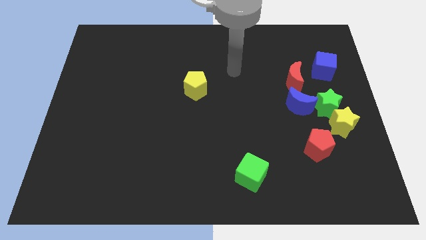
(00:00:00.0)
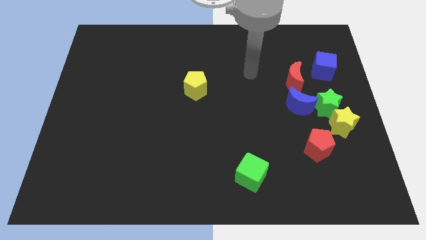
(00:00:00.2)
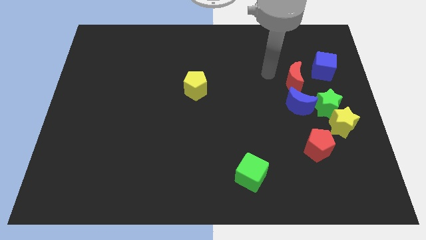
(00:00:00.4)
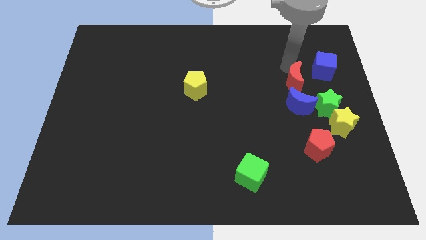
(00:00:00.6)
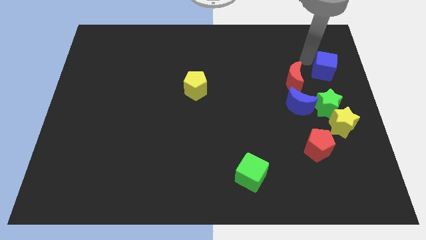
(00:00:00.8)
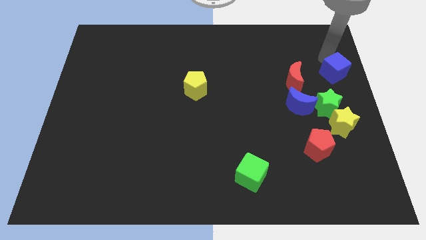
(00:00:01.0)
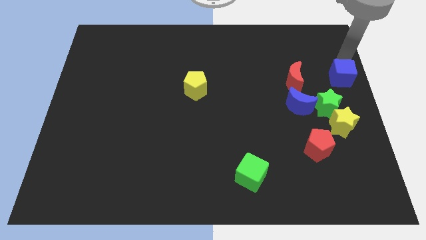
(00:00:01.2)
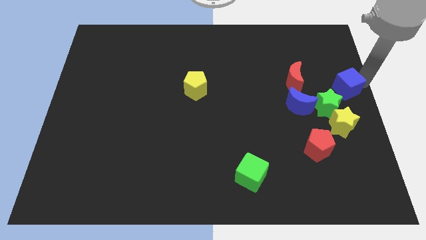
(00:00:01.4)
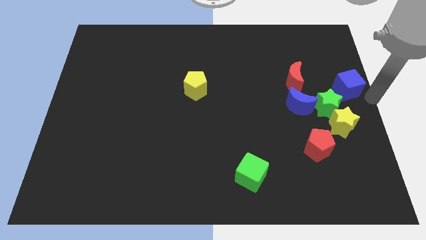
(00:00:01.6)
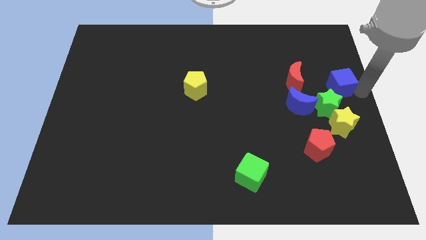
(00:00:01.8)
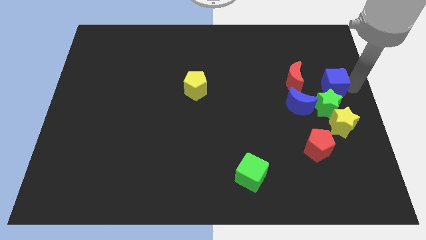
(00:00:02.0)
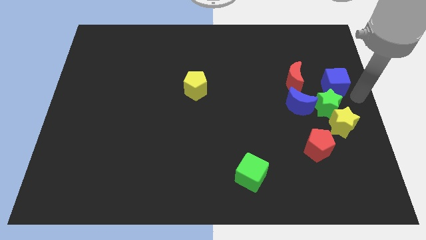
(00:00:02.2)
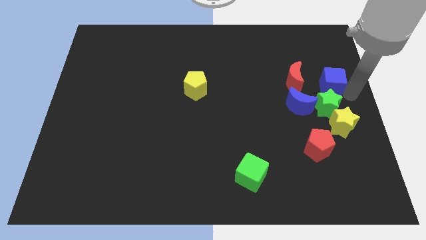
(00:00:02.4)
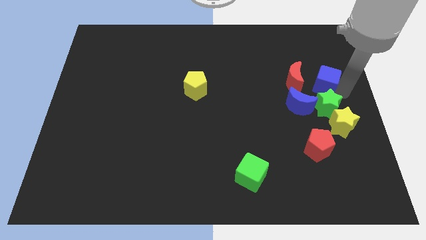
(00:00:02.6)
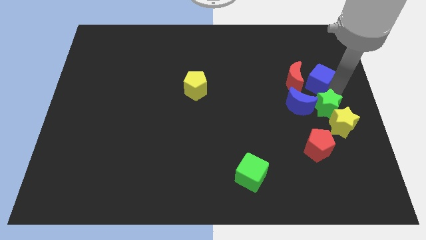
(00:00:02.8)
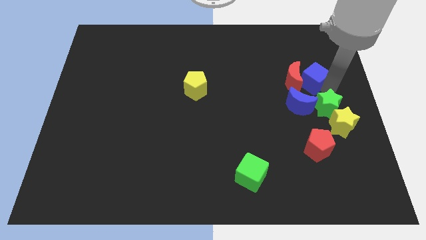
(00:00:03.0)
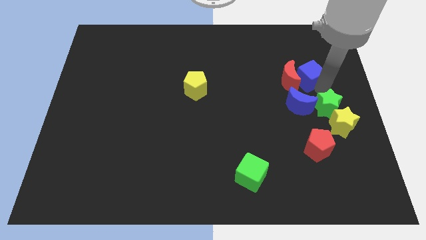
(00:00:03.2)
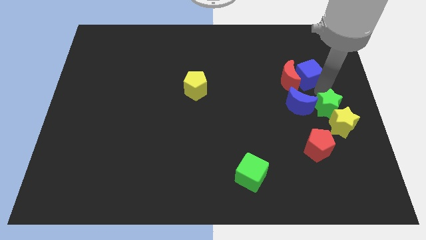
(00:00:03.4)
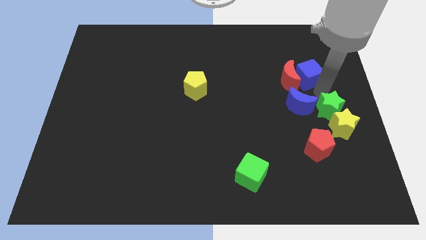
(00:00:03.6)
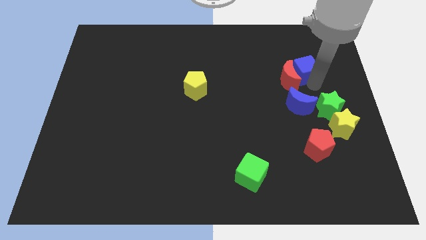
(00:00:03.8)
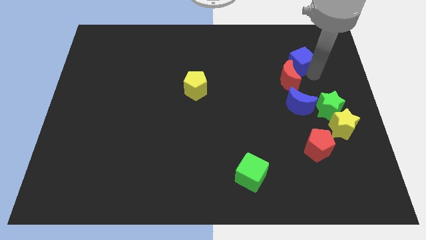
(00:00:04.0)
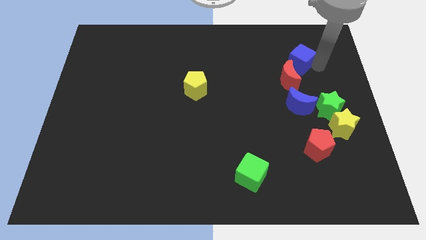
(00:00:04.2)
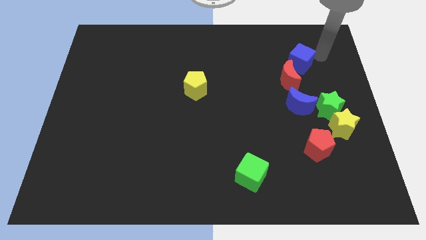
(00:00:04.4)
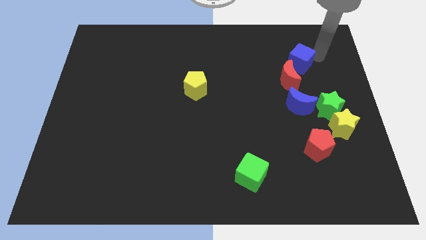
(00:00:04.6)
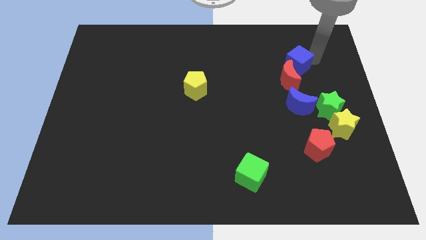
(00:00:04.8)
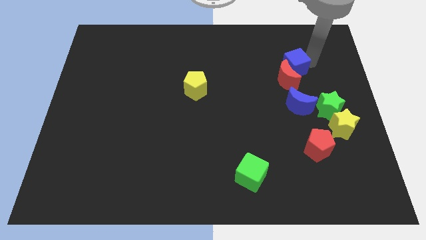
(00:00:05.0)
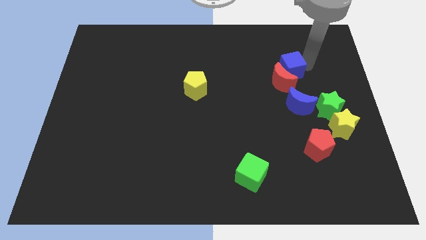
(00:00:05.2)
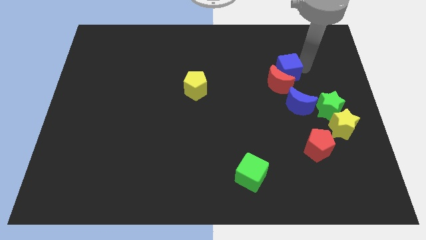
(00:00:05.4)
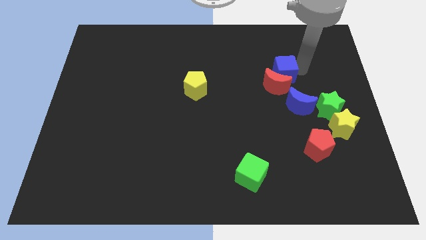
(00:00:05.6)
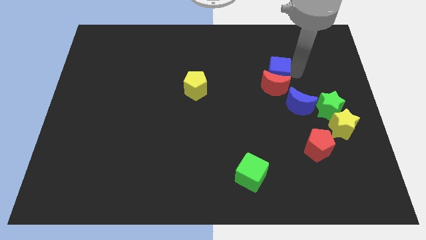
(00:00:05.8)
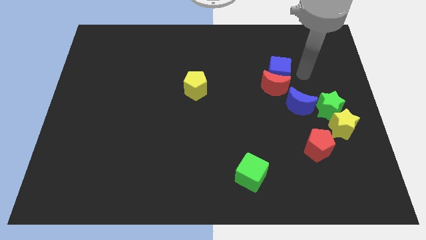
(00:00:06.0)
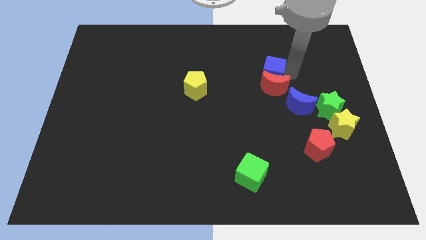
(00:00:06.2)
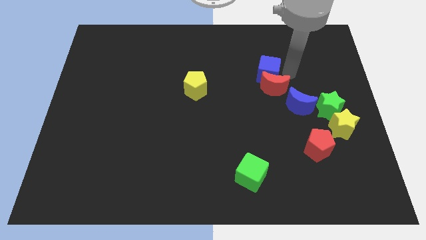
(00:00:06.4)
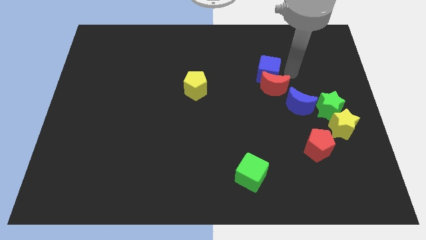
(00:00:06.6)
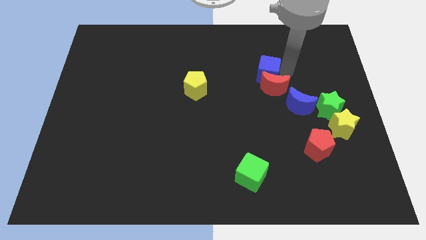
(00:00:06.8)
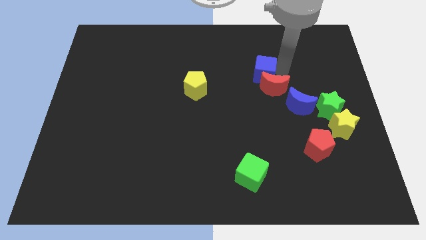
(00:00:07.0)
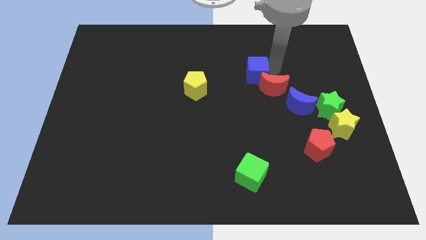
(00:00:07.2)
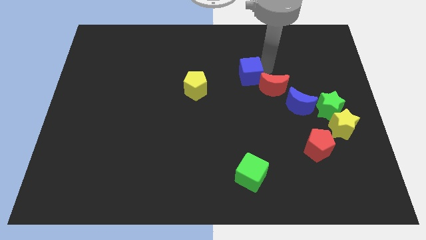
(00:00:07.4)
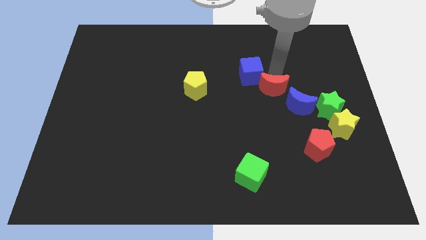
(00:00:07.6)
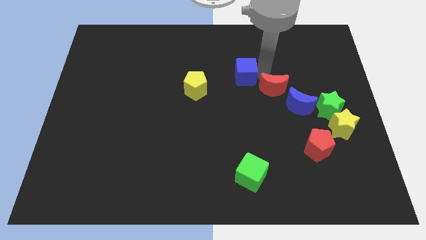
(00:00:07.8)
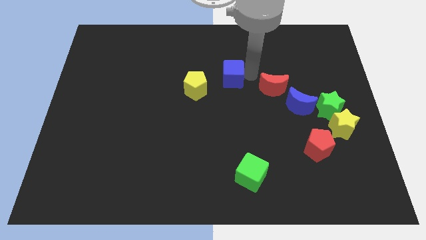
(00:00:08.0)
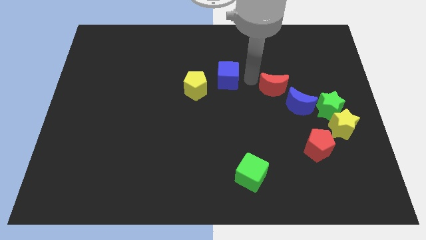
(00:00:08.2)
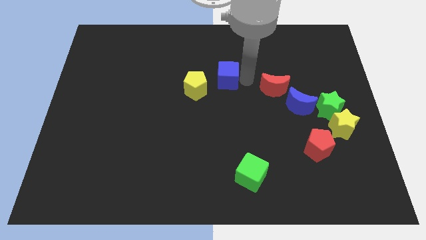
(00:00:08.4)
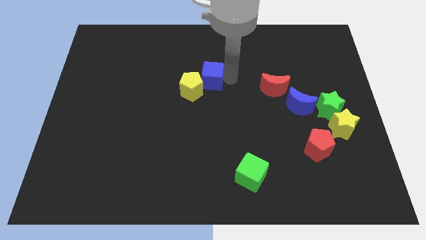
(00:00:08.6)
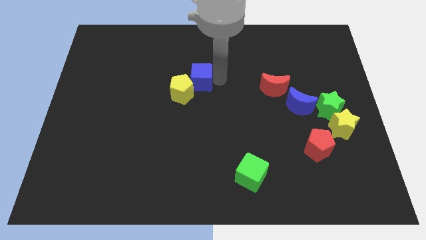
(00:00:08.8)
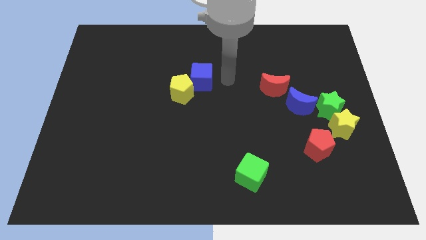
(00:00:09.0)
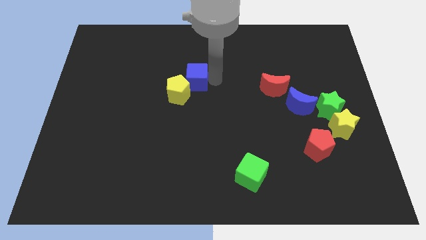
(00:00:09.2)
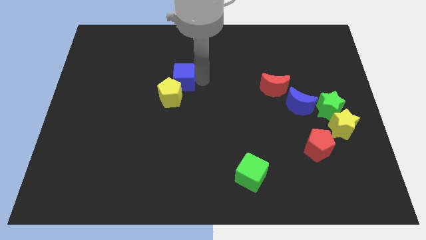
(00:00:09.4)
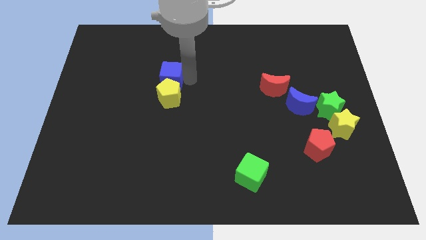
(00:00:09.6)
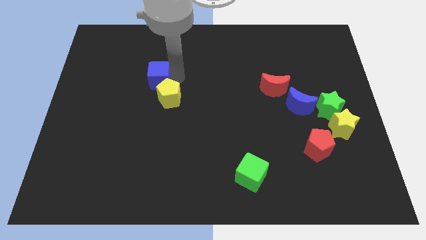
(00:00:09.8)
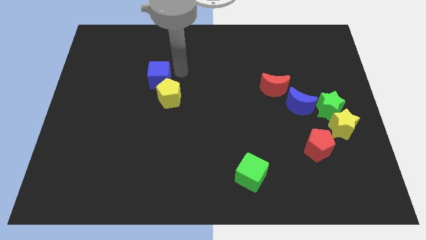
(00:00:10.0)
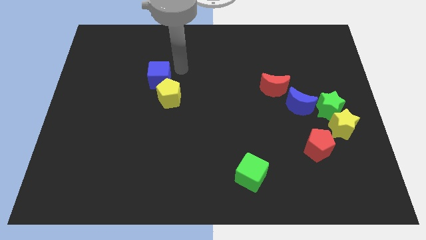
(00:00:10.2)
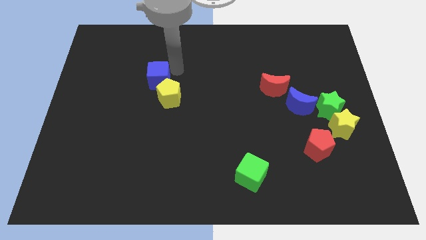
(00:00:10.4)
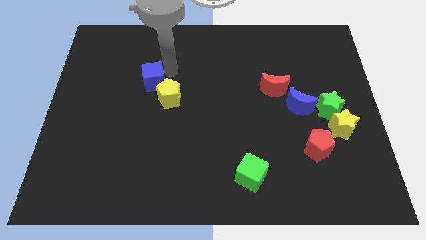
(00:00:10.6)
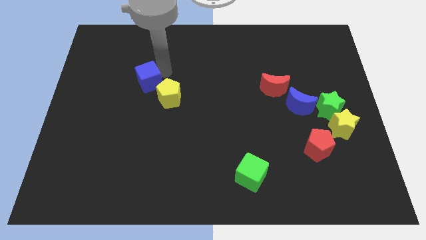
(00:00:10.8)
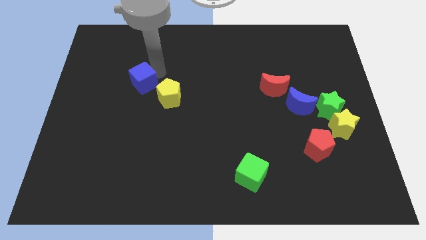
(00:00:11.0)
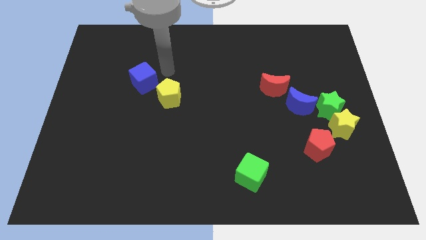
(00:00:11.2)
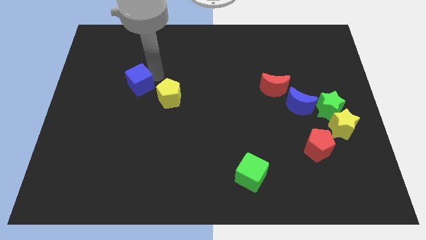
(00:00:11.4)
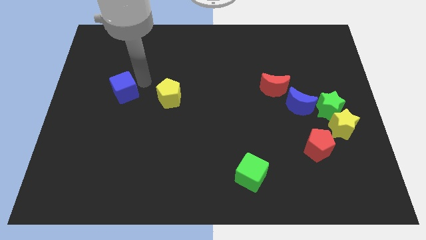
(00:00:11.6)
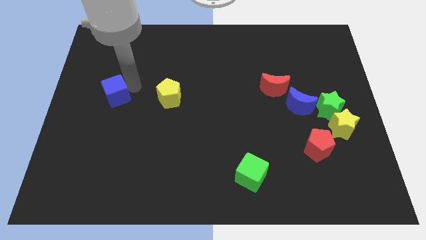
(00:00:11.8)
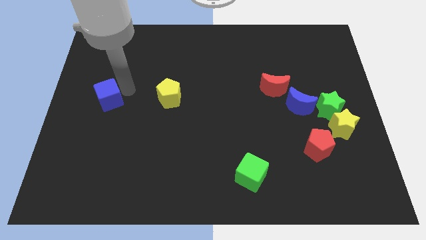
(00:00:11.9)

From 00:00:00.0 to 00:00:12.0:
put the blue cube to the left side of the board
